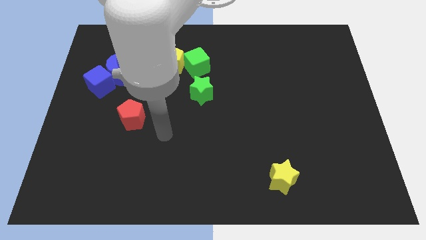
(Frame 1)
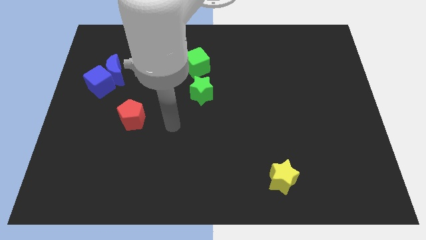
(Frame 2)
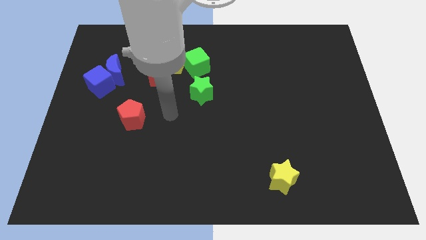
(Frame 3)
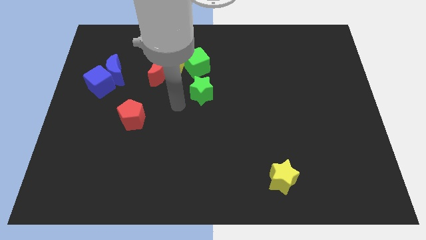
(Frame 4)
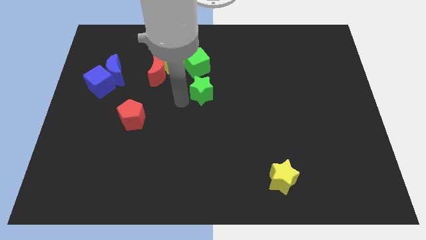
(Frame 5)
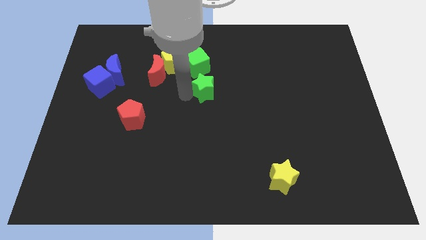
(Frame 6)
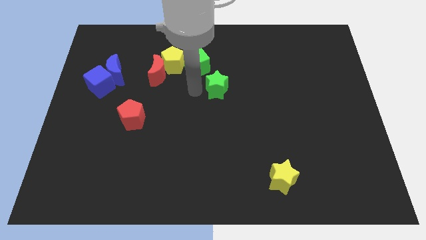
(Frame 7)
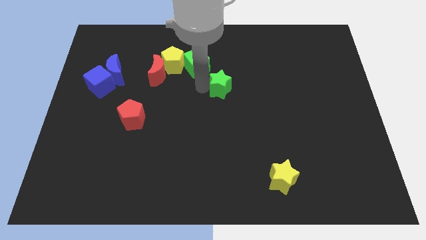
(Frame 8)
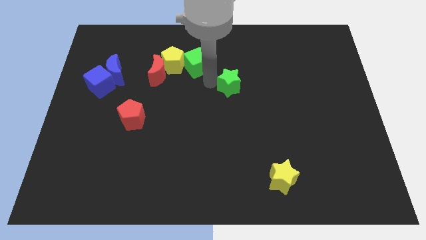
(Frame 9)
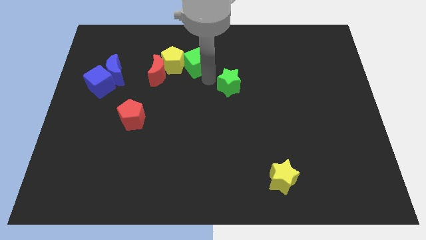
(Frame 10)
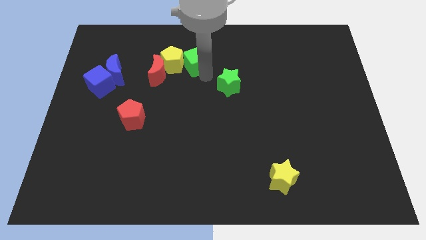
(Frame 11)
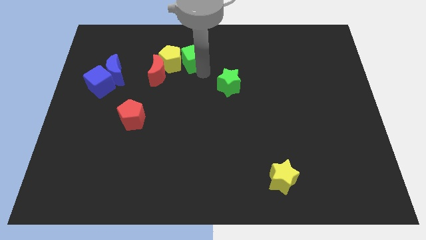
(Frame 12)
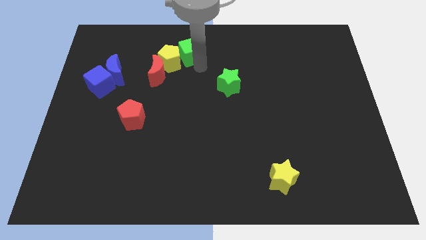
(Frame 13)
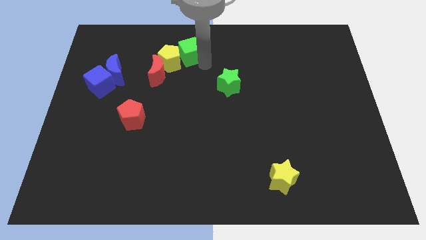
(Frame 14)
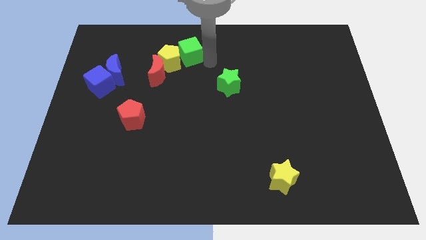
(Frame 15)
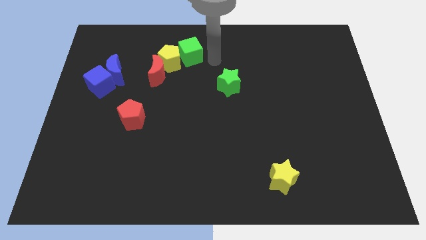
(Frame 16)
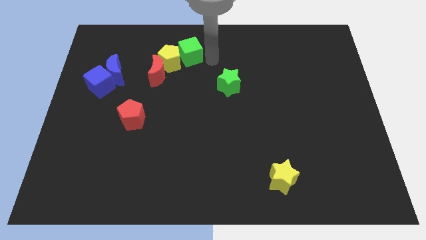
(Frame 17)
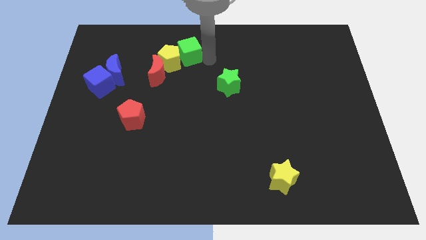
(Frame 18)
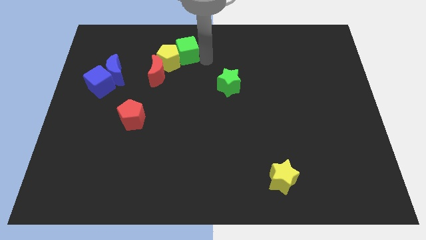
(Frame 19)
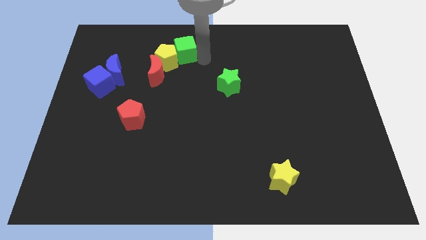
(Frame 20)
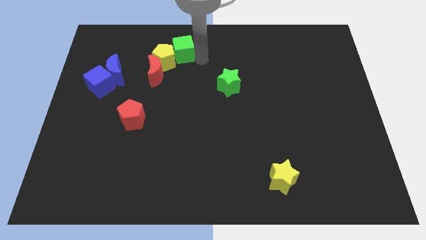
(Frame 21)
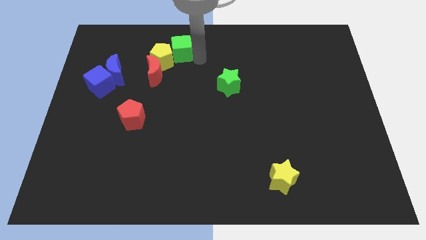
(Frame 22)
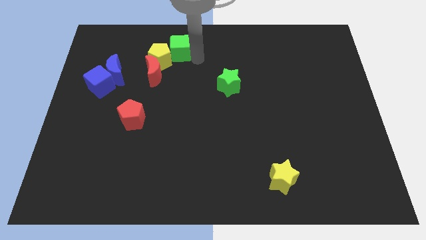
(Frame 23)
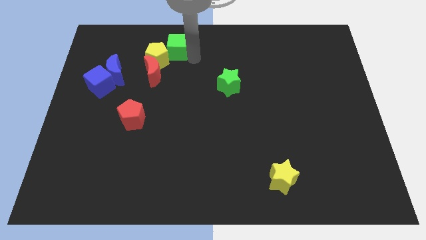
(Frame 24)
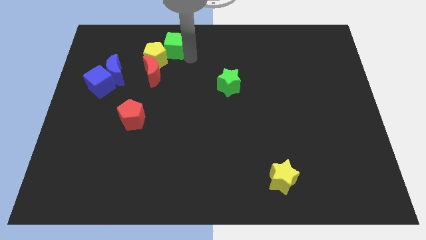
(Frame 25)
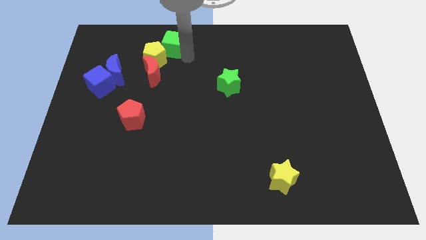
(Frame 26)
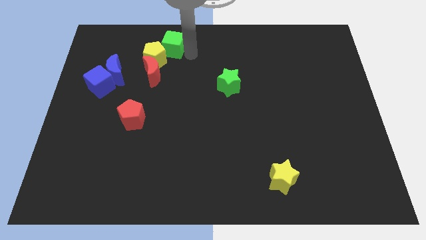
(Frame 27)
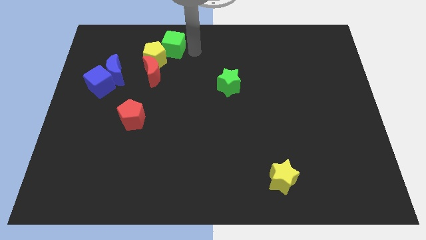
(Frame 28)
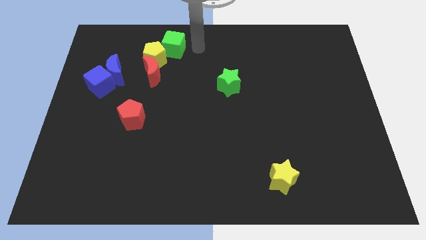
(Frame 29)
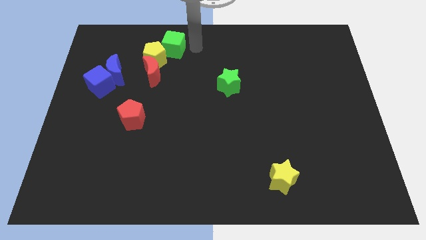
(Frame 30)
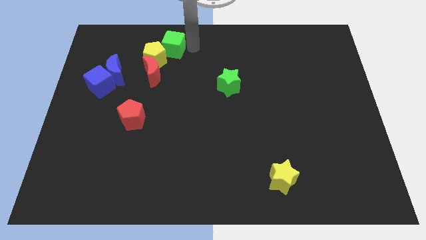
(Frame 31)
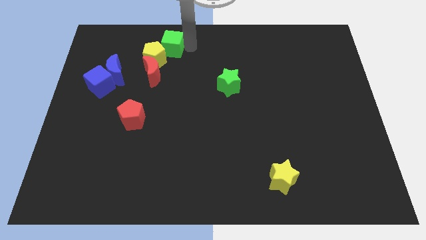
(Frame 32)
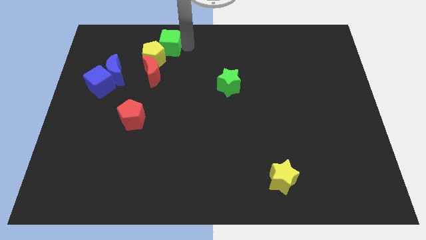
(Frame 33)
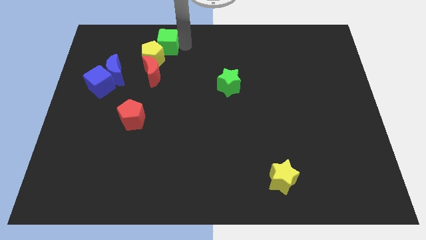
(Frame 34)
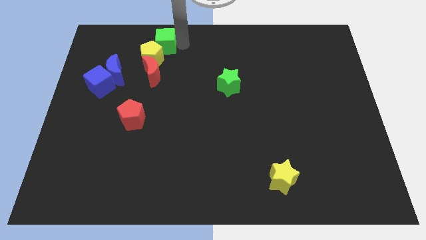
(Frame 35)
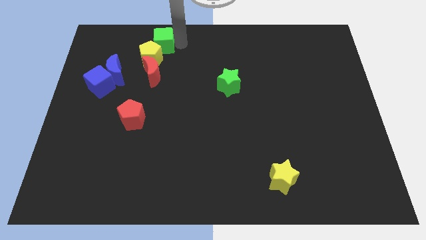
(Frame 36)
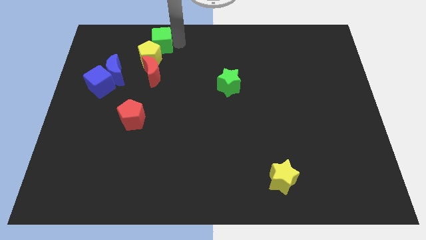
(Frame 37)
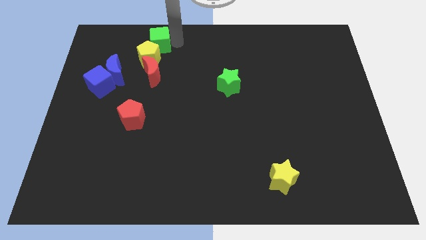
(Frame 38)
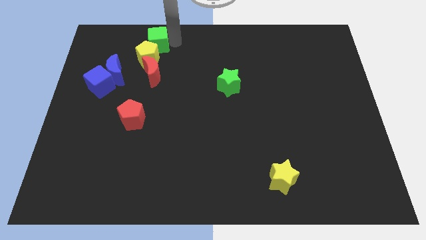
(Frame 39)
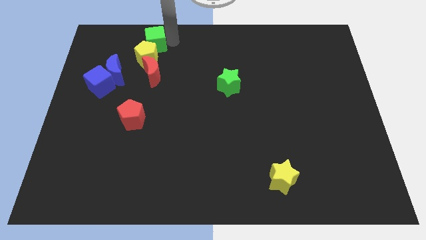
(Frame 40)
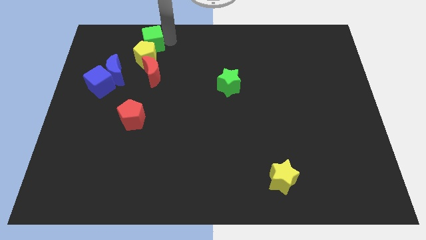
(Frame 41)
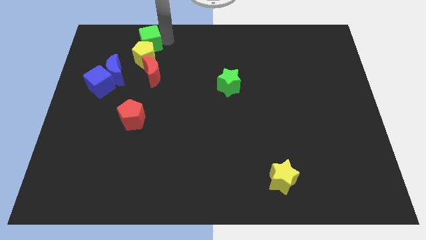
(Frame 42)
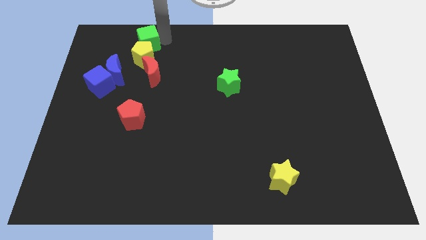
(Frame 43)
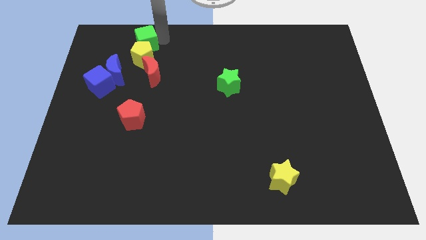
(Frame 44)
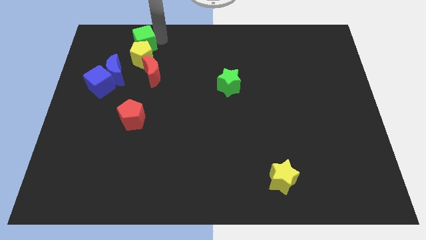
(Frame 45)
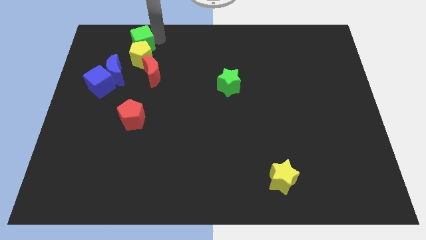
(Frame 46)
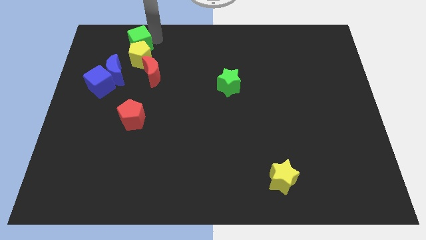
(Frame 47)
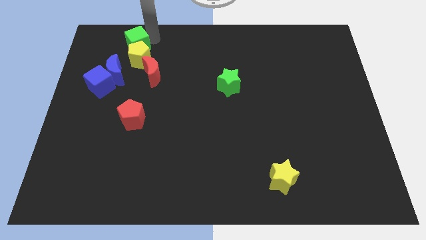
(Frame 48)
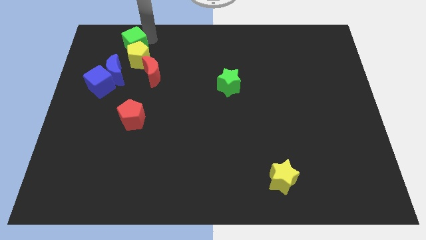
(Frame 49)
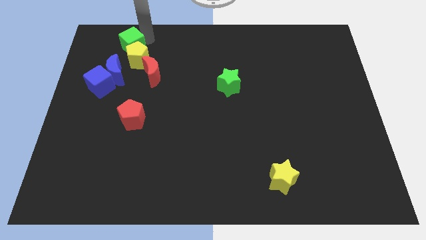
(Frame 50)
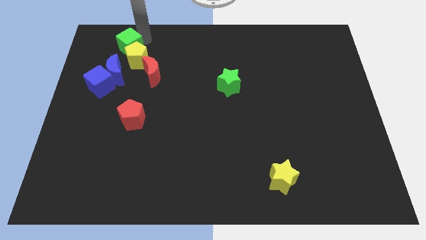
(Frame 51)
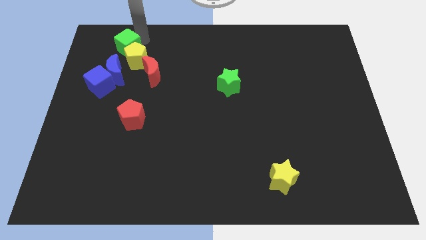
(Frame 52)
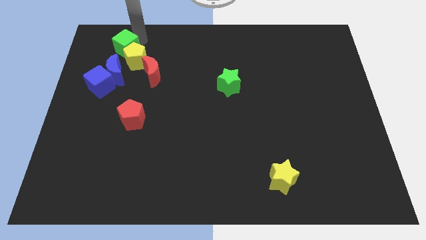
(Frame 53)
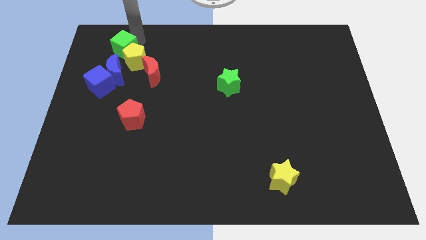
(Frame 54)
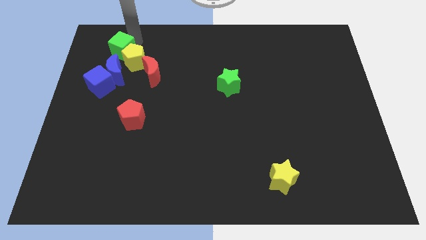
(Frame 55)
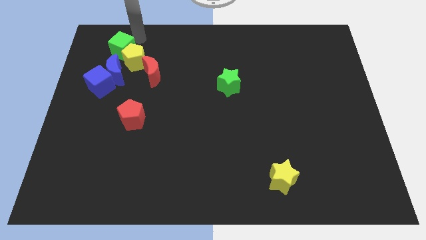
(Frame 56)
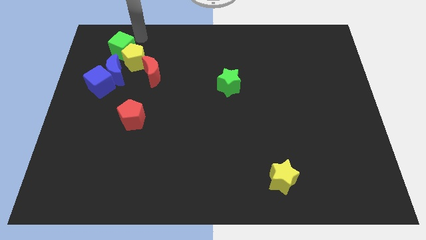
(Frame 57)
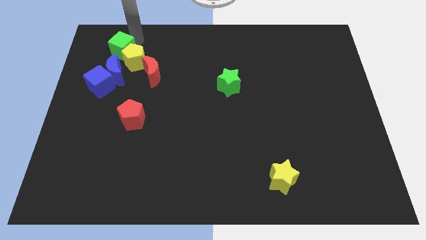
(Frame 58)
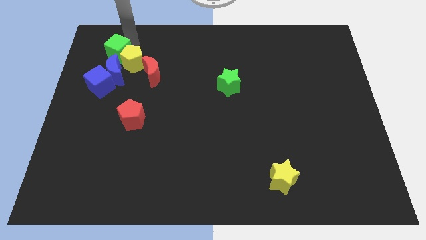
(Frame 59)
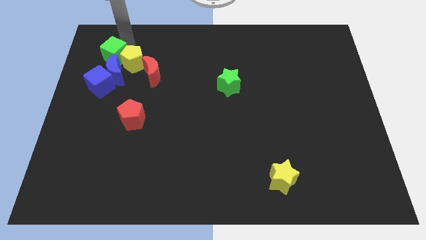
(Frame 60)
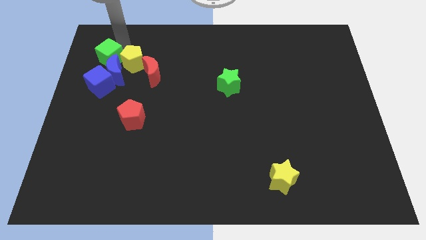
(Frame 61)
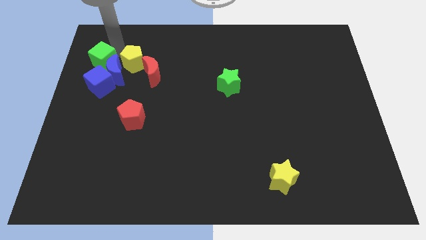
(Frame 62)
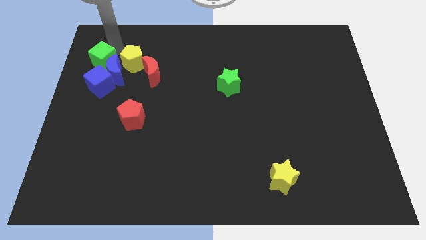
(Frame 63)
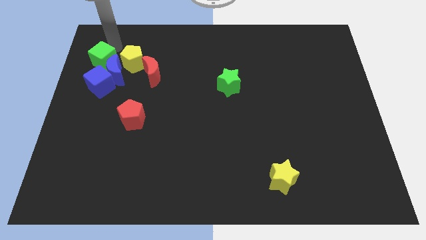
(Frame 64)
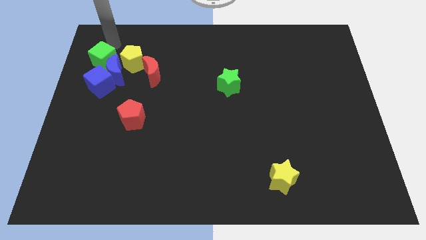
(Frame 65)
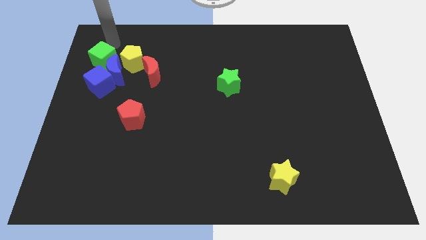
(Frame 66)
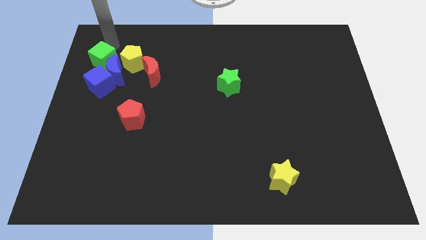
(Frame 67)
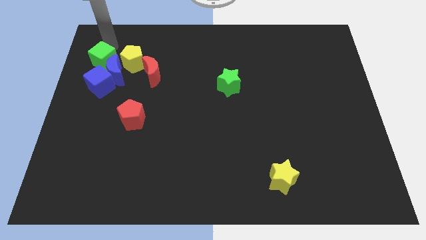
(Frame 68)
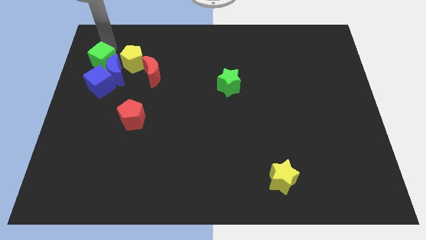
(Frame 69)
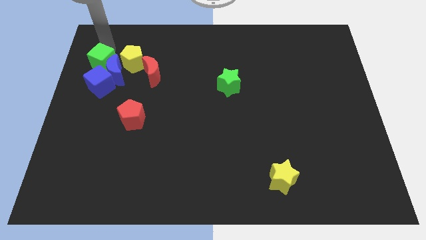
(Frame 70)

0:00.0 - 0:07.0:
slide the green cube left of the red moon
